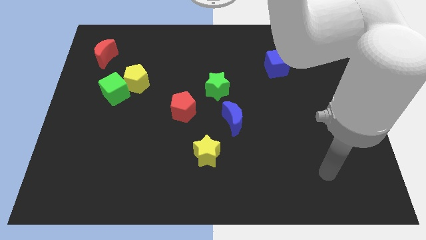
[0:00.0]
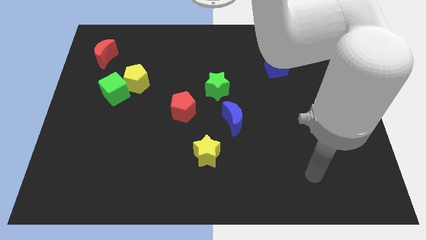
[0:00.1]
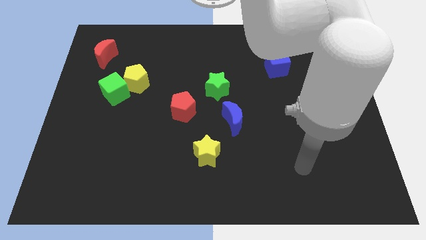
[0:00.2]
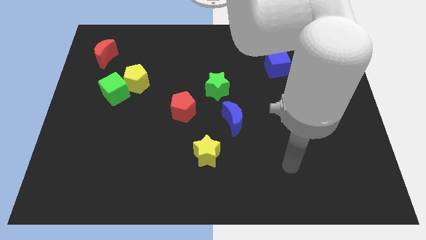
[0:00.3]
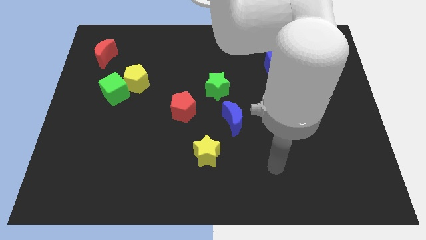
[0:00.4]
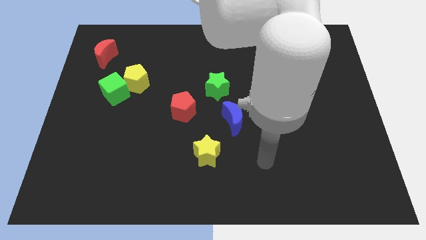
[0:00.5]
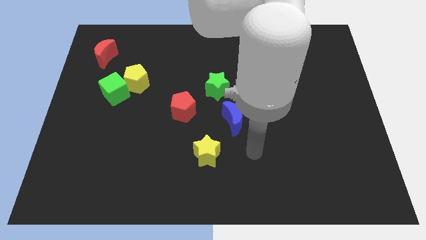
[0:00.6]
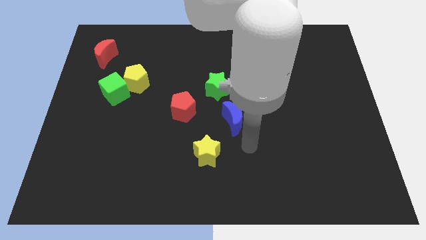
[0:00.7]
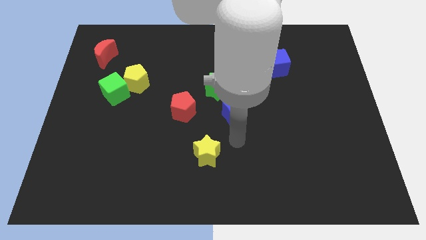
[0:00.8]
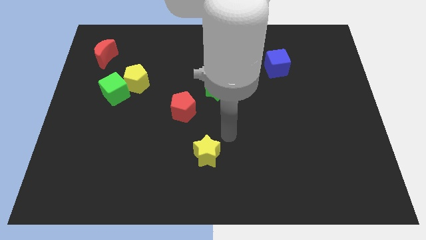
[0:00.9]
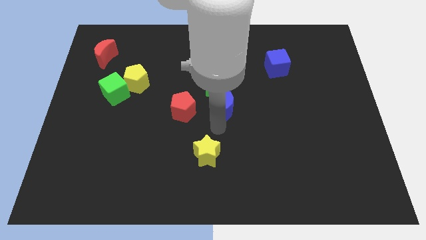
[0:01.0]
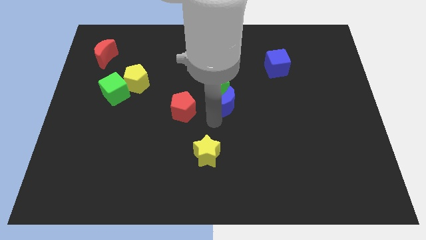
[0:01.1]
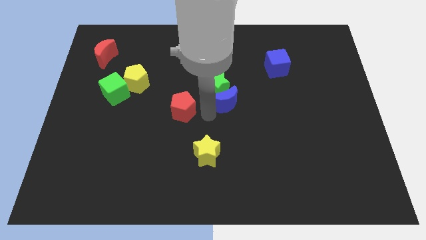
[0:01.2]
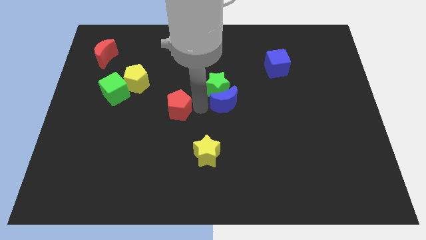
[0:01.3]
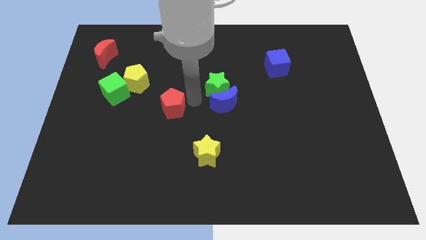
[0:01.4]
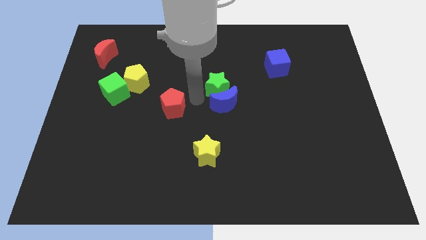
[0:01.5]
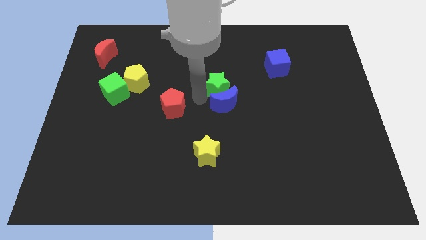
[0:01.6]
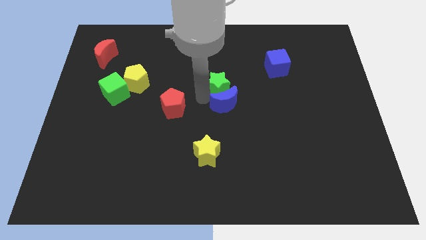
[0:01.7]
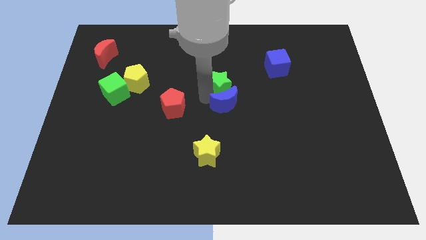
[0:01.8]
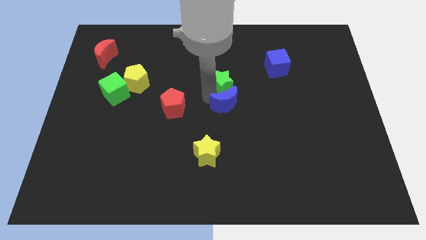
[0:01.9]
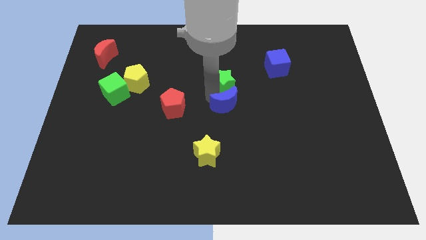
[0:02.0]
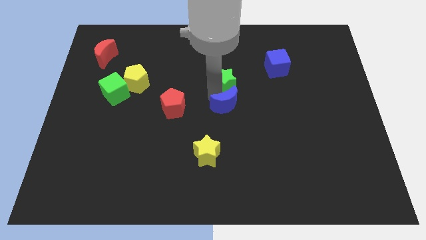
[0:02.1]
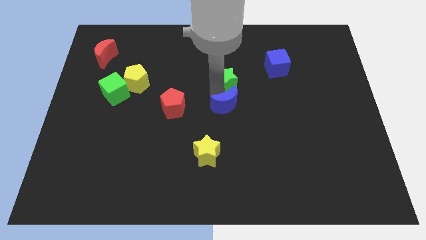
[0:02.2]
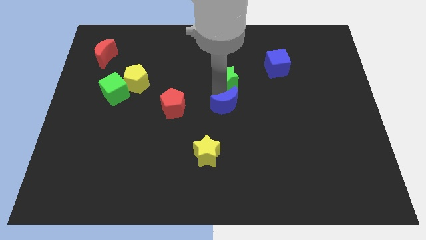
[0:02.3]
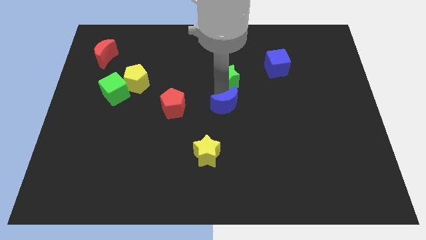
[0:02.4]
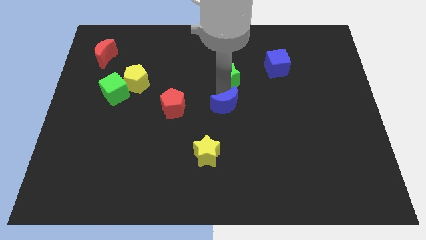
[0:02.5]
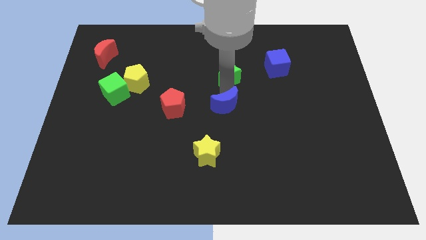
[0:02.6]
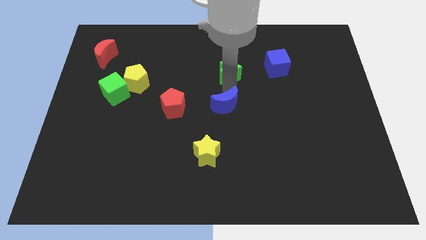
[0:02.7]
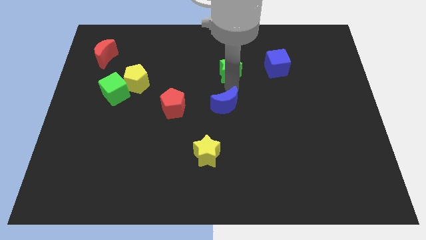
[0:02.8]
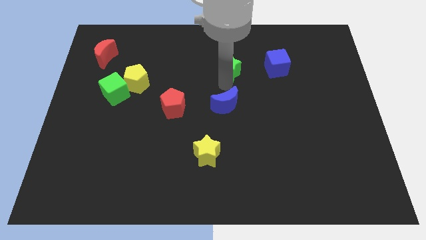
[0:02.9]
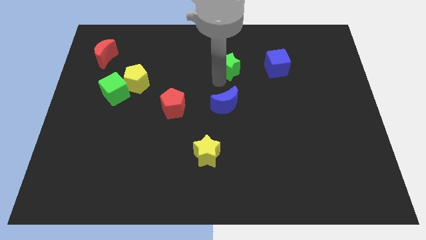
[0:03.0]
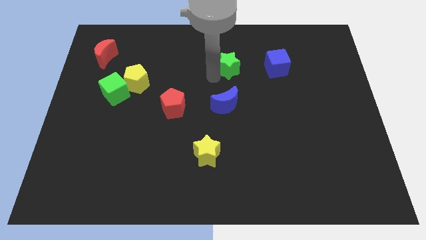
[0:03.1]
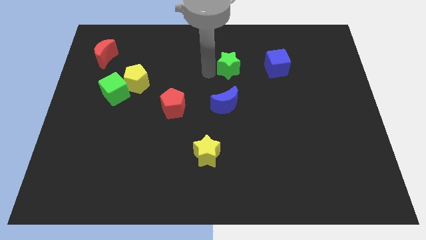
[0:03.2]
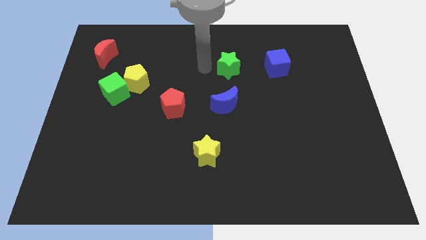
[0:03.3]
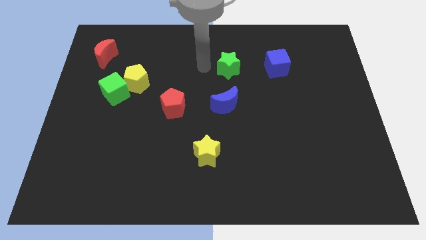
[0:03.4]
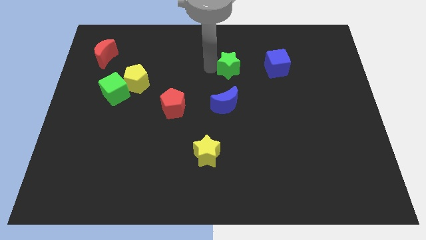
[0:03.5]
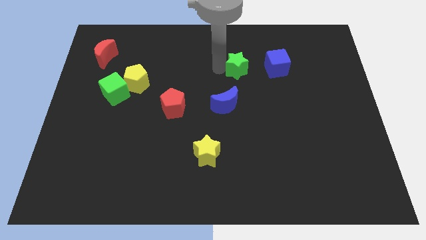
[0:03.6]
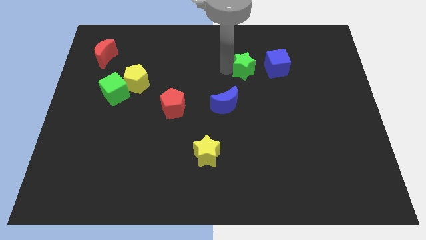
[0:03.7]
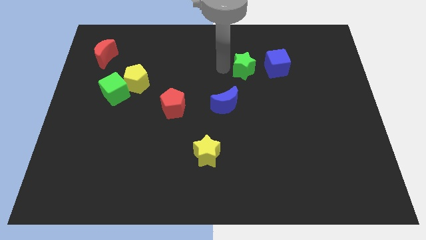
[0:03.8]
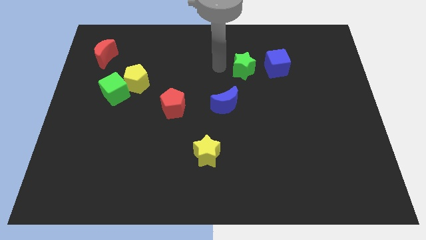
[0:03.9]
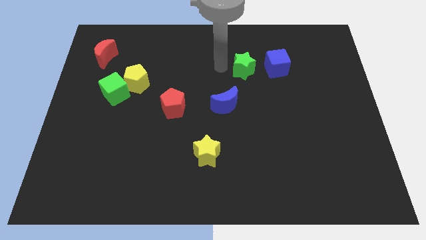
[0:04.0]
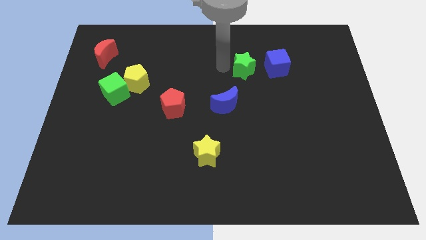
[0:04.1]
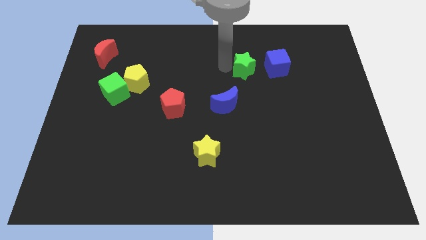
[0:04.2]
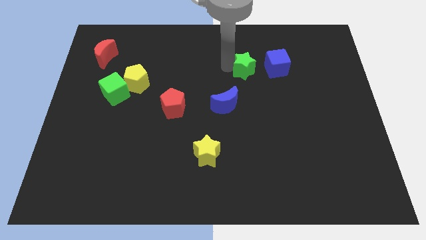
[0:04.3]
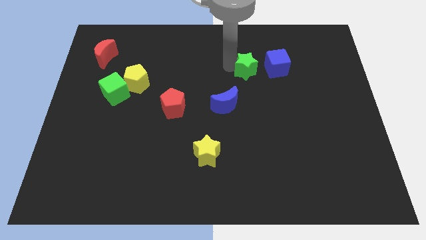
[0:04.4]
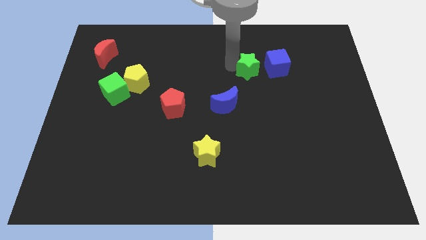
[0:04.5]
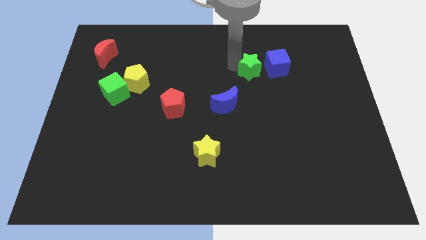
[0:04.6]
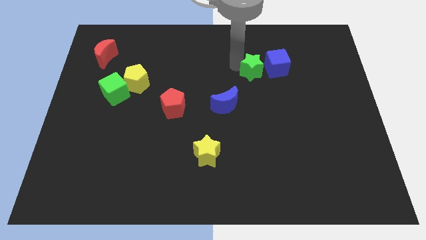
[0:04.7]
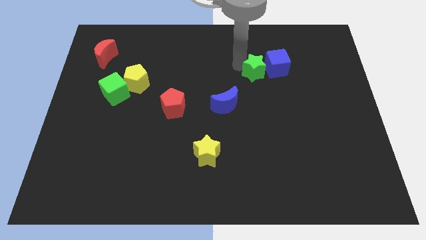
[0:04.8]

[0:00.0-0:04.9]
slide the green star towards the blue cube

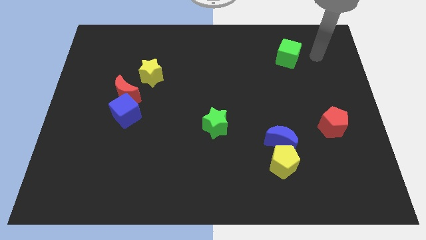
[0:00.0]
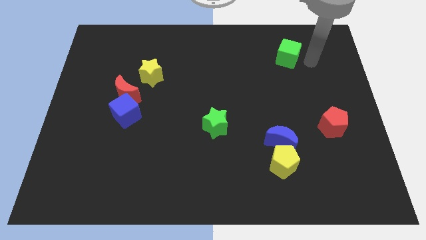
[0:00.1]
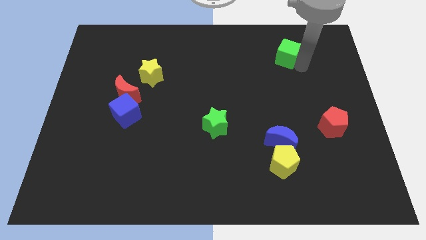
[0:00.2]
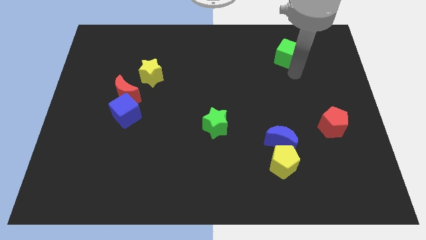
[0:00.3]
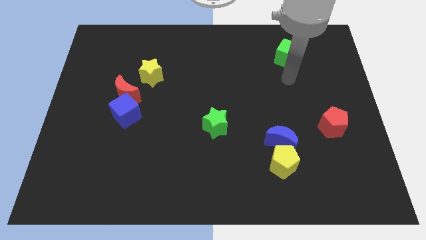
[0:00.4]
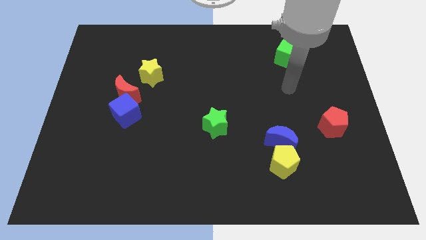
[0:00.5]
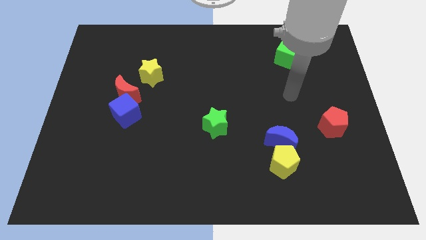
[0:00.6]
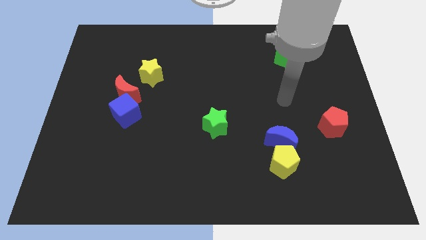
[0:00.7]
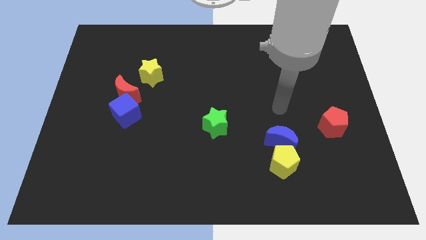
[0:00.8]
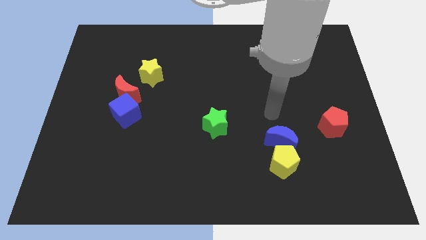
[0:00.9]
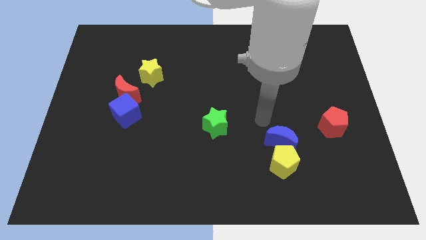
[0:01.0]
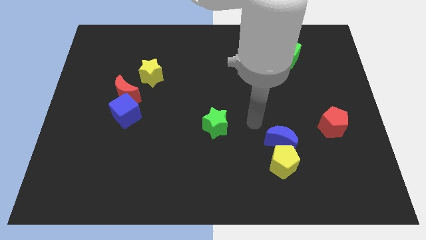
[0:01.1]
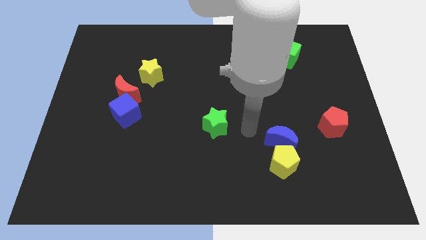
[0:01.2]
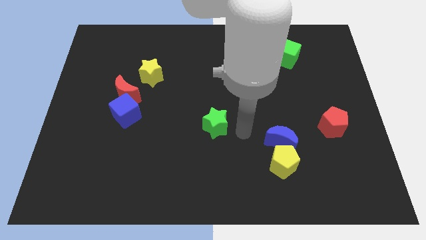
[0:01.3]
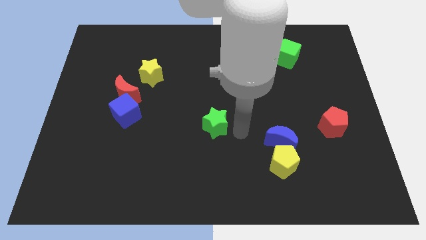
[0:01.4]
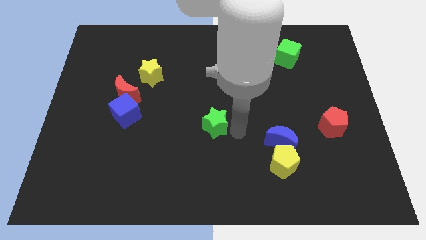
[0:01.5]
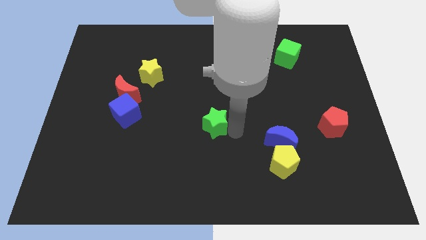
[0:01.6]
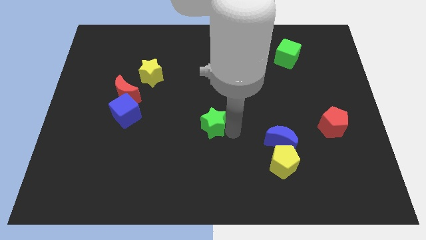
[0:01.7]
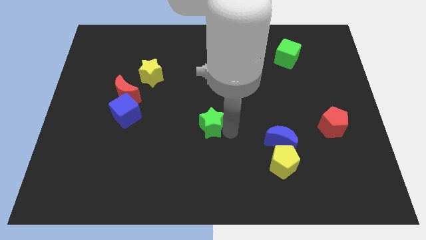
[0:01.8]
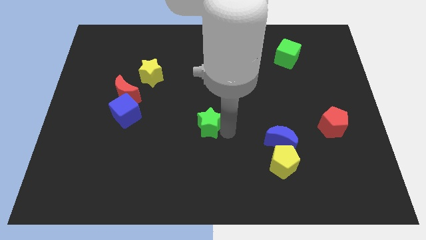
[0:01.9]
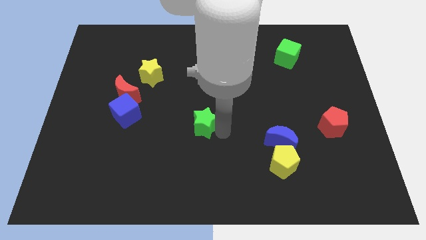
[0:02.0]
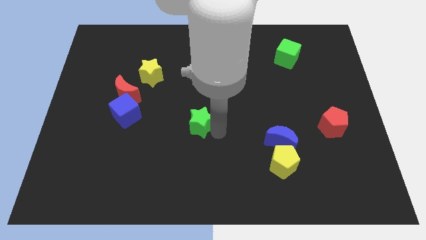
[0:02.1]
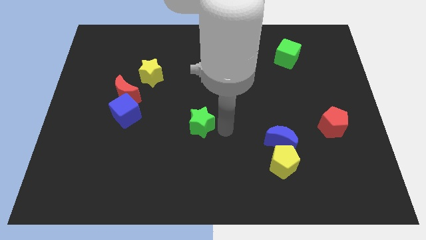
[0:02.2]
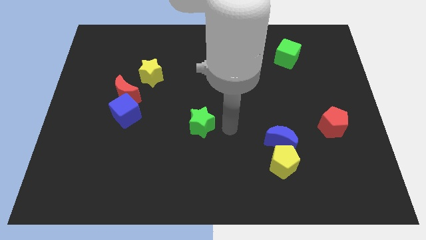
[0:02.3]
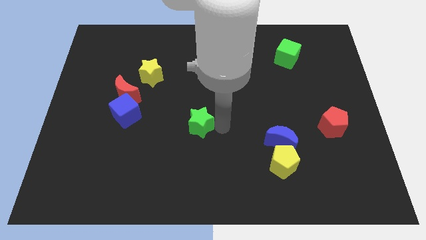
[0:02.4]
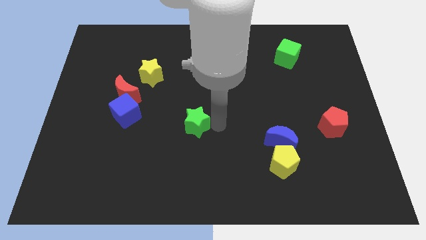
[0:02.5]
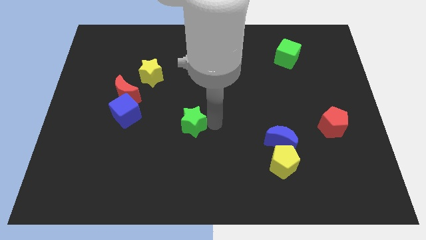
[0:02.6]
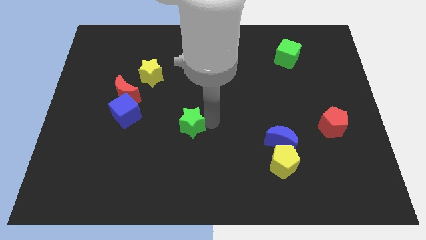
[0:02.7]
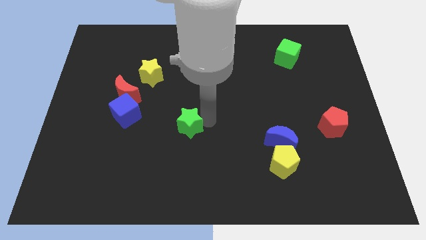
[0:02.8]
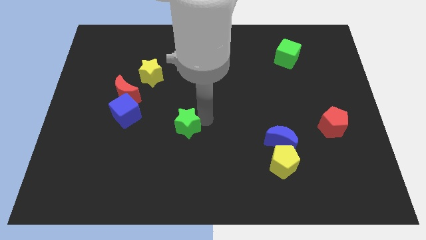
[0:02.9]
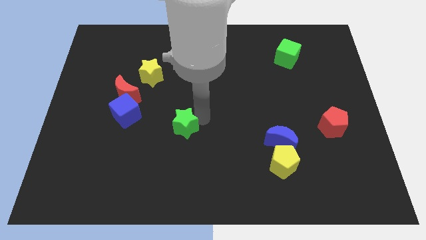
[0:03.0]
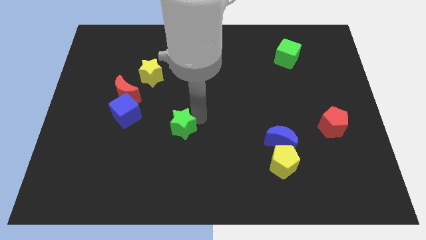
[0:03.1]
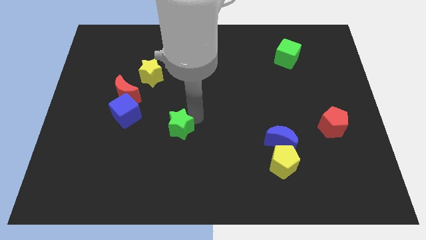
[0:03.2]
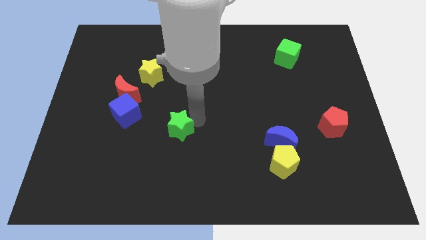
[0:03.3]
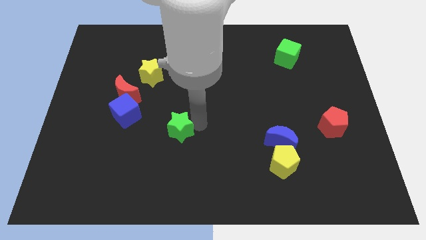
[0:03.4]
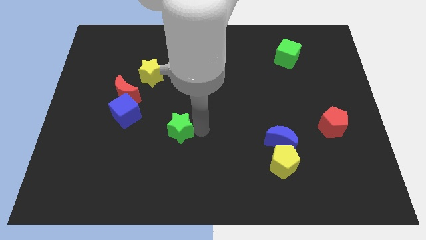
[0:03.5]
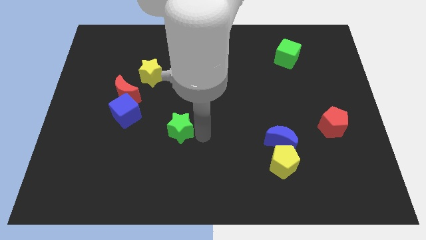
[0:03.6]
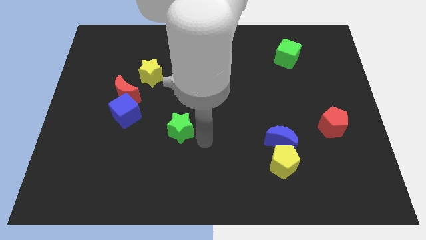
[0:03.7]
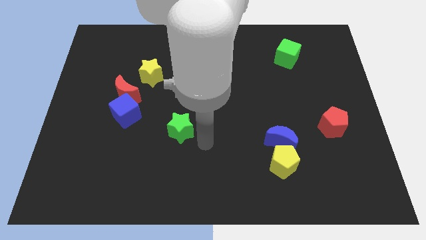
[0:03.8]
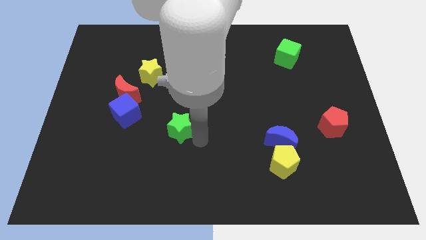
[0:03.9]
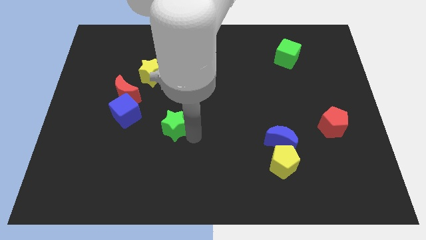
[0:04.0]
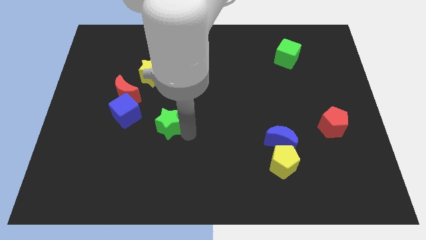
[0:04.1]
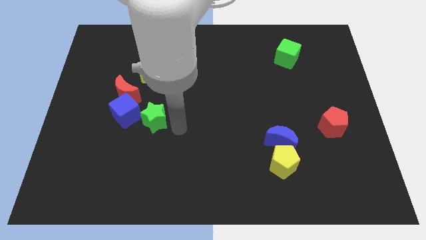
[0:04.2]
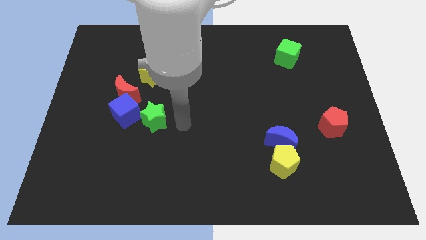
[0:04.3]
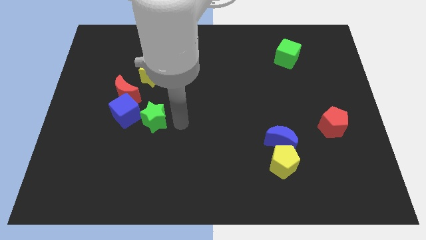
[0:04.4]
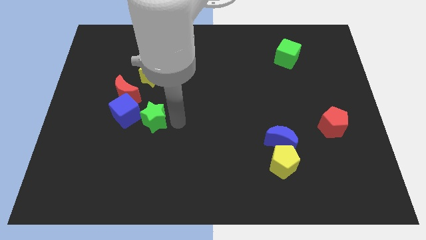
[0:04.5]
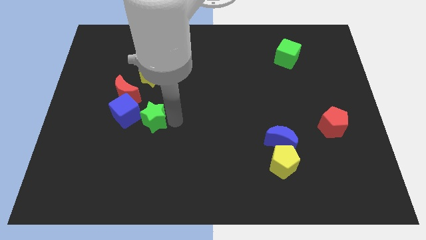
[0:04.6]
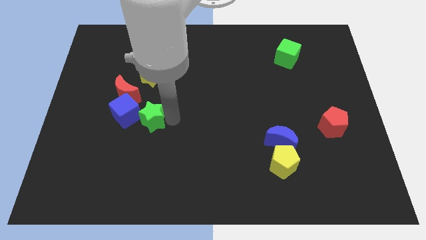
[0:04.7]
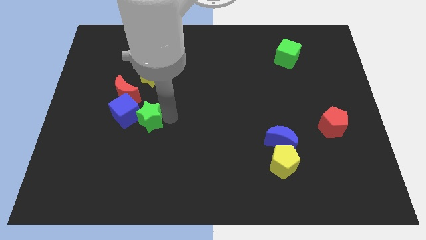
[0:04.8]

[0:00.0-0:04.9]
move the green star close to the blue cube
